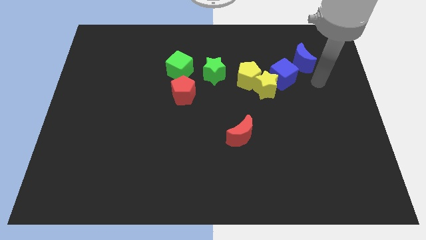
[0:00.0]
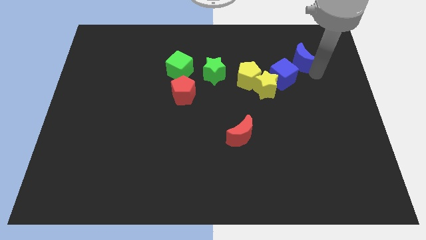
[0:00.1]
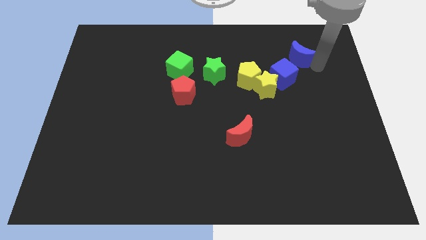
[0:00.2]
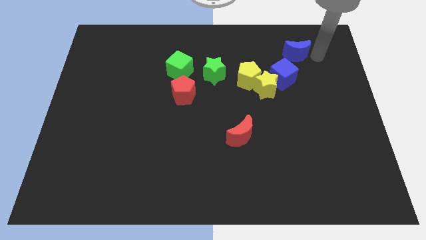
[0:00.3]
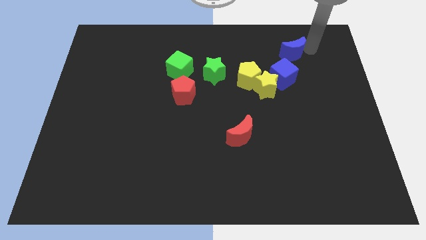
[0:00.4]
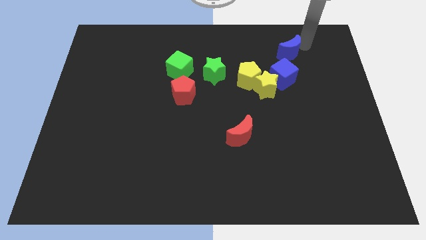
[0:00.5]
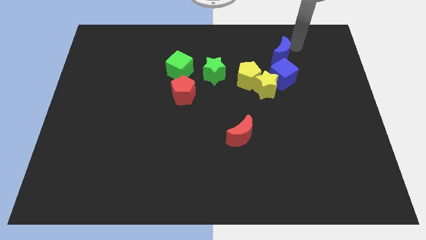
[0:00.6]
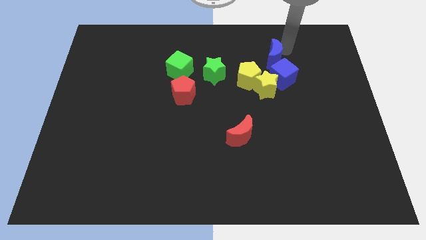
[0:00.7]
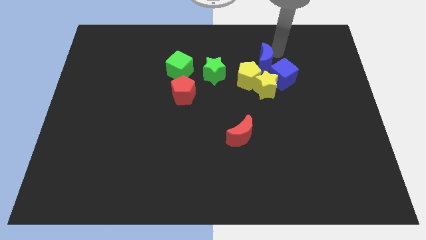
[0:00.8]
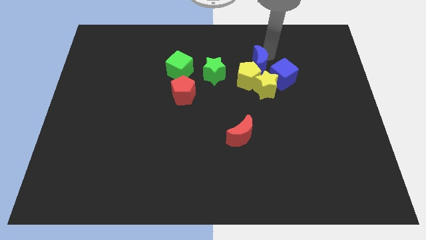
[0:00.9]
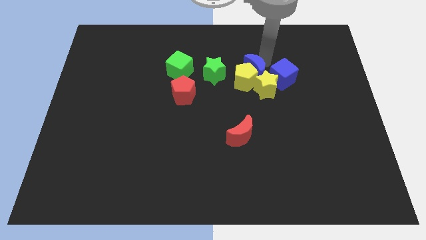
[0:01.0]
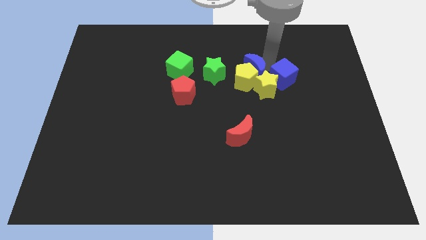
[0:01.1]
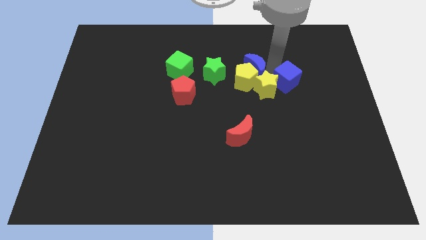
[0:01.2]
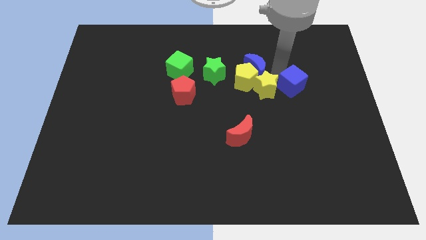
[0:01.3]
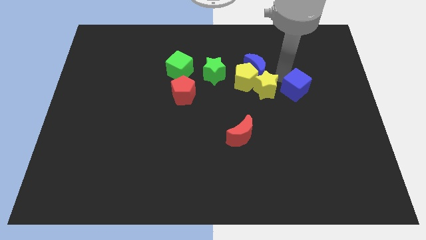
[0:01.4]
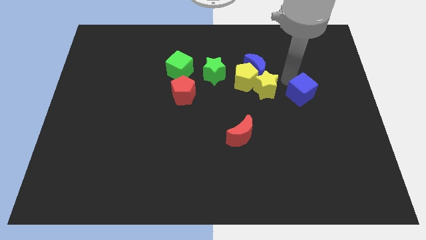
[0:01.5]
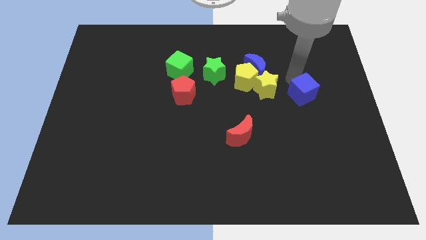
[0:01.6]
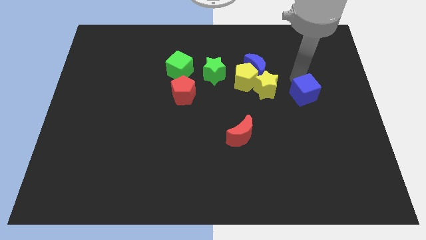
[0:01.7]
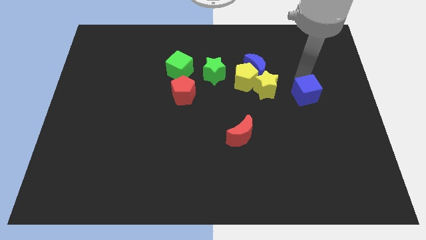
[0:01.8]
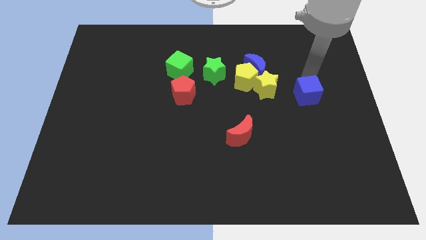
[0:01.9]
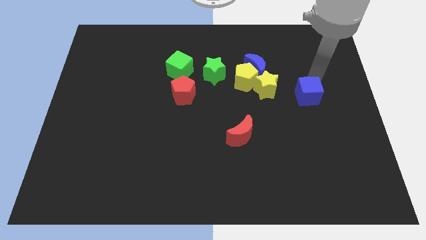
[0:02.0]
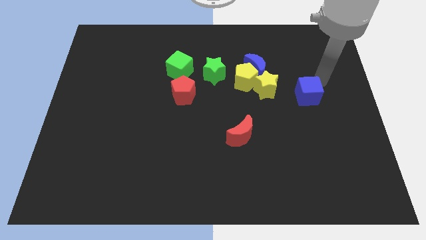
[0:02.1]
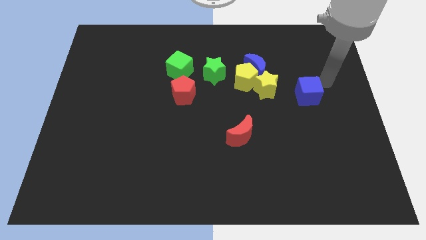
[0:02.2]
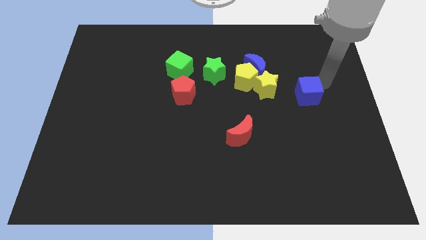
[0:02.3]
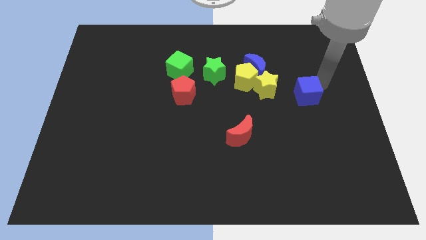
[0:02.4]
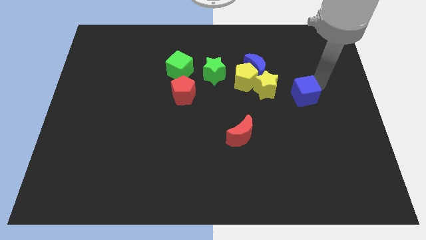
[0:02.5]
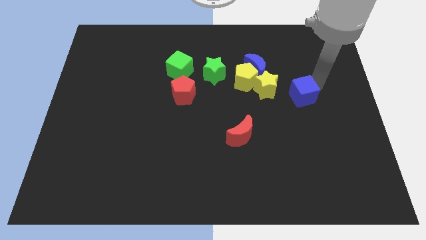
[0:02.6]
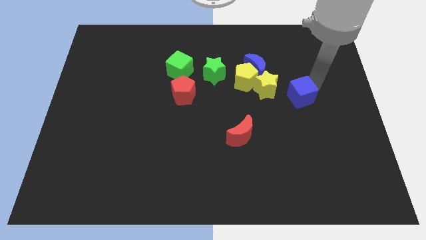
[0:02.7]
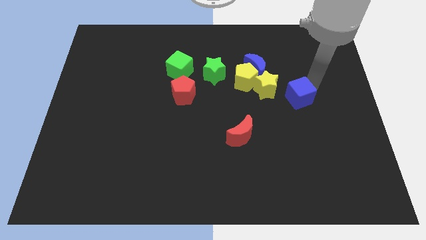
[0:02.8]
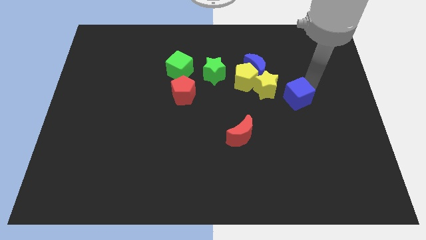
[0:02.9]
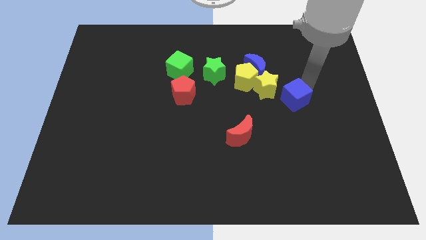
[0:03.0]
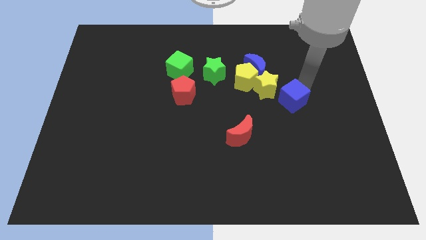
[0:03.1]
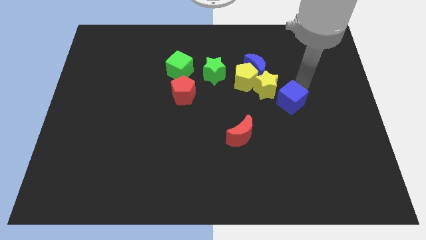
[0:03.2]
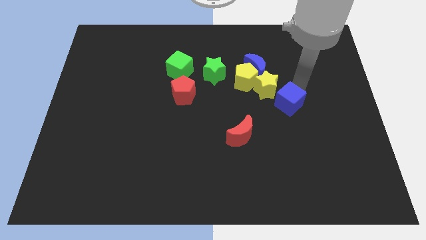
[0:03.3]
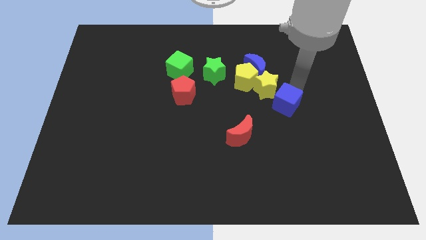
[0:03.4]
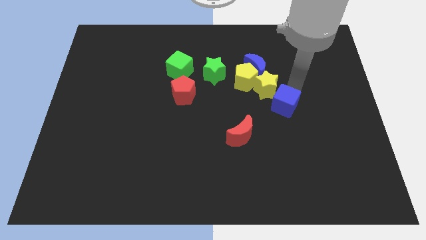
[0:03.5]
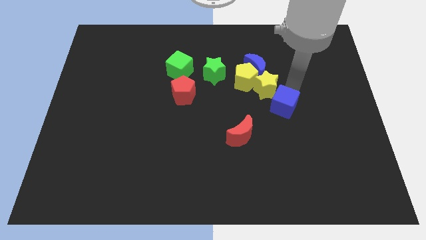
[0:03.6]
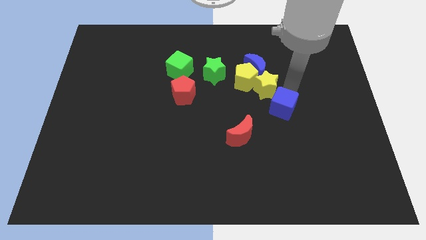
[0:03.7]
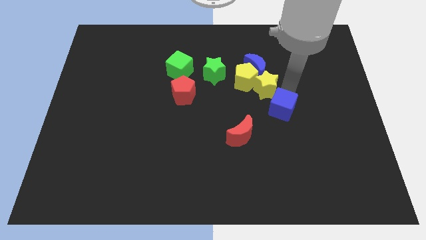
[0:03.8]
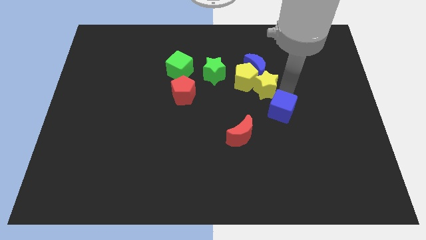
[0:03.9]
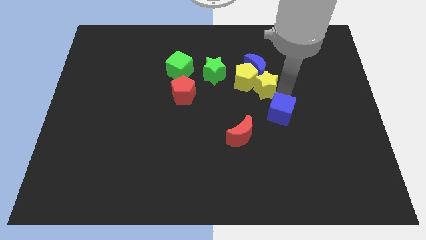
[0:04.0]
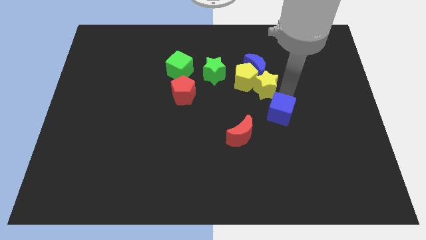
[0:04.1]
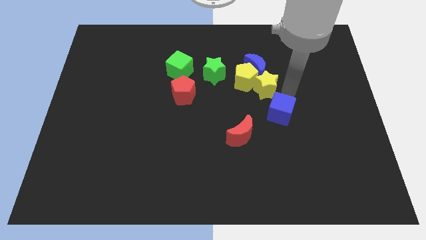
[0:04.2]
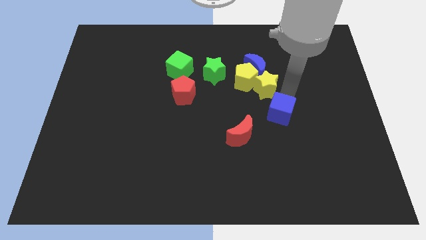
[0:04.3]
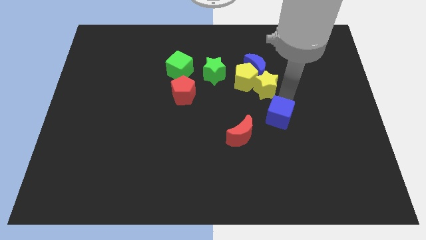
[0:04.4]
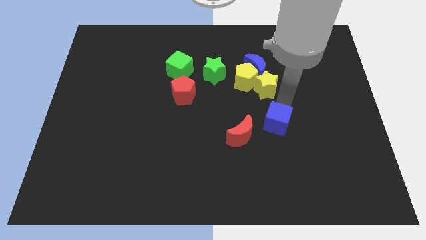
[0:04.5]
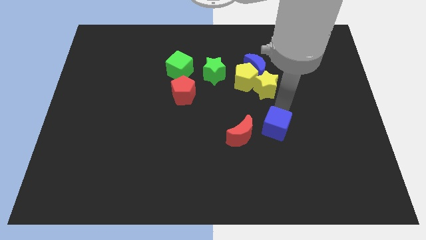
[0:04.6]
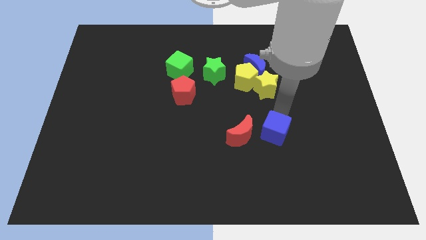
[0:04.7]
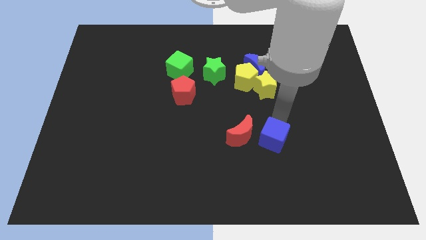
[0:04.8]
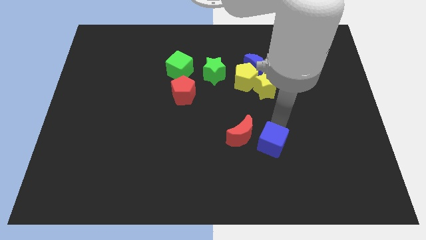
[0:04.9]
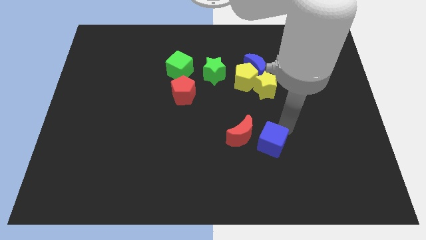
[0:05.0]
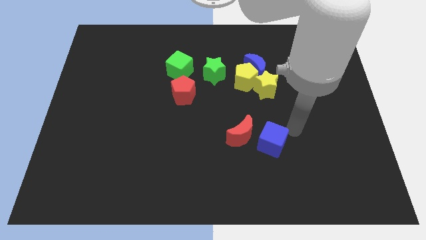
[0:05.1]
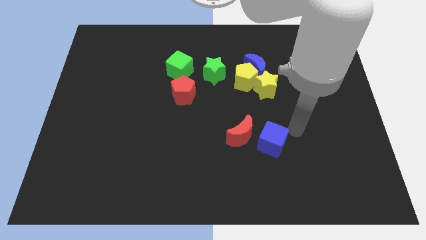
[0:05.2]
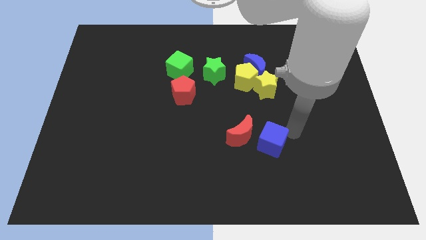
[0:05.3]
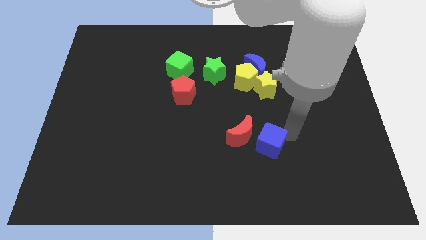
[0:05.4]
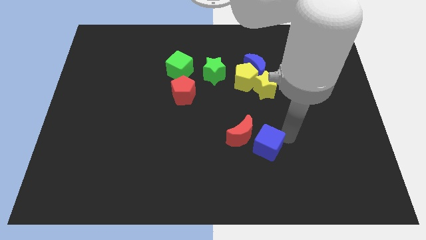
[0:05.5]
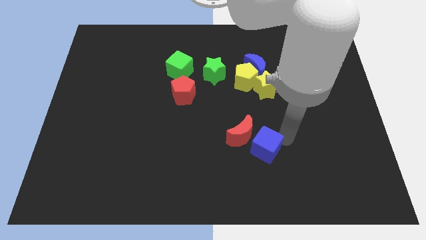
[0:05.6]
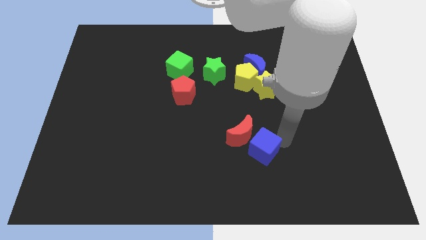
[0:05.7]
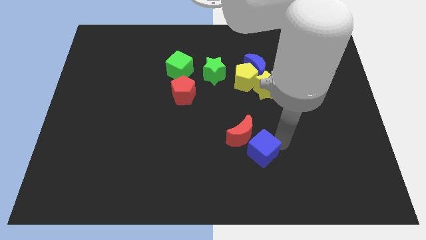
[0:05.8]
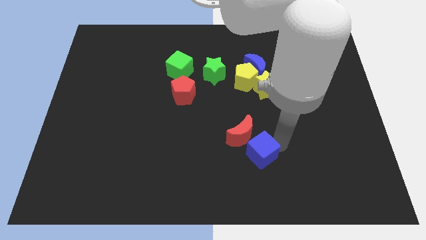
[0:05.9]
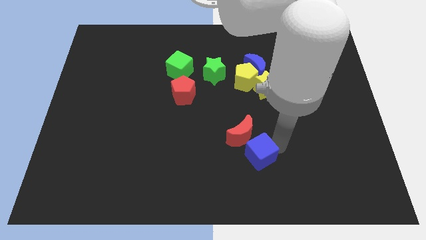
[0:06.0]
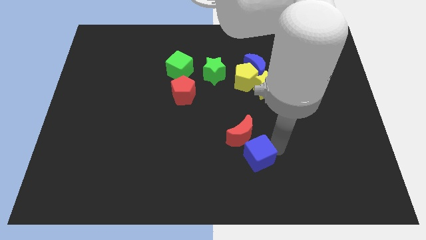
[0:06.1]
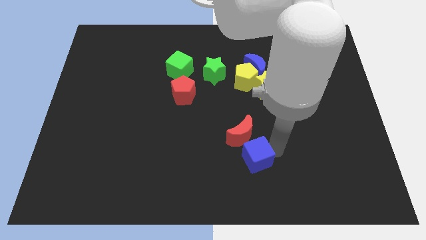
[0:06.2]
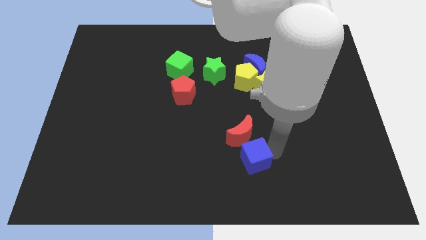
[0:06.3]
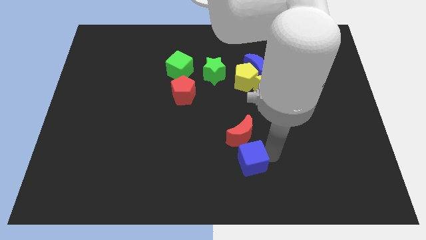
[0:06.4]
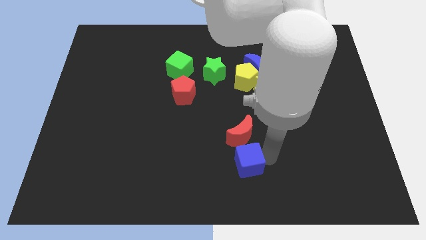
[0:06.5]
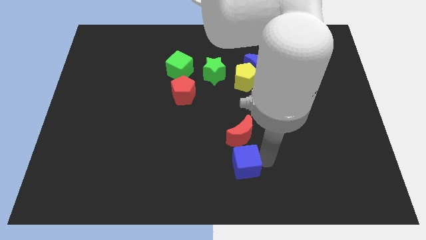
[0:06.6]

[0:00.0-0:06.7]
push the blue cube downwards and left

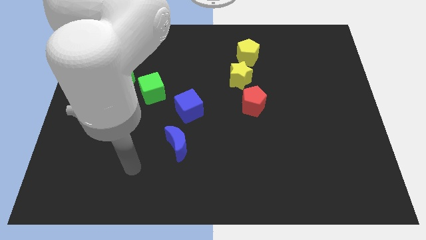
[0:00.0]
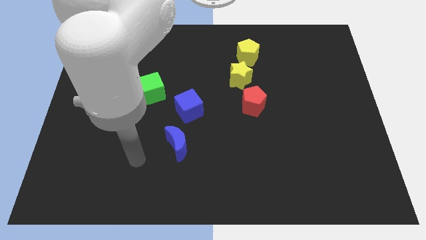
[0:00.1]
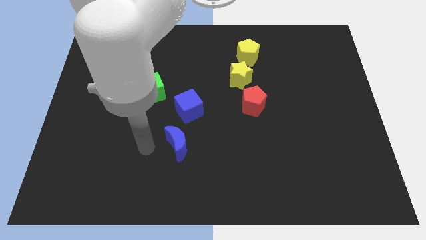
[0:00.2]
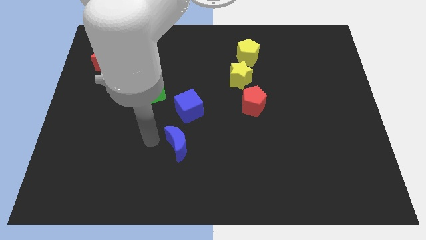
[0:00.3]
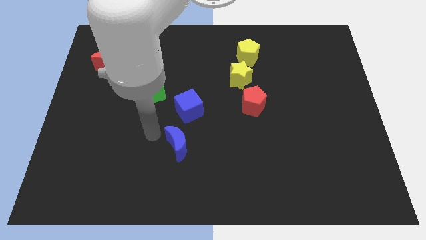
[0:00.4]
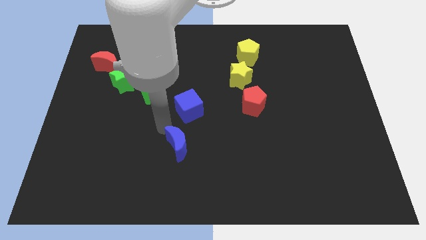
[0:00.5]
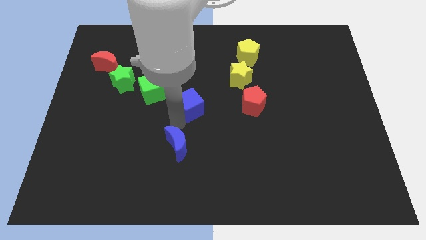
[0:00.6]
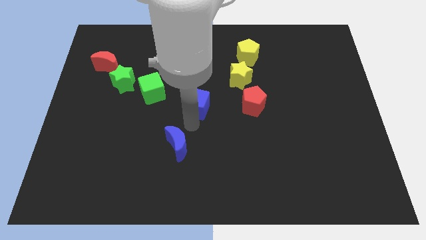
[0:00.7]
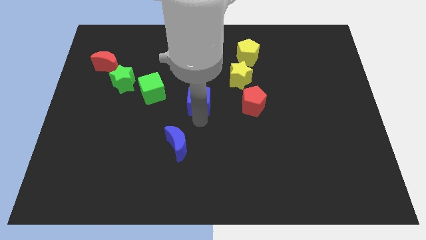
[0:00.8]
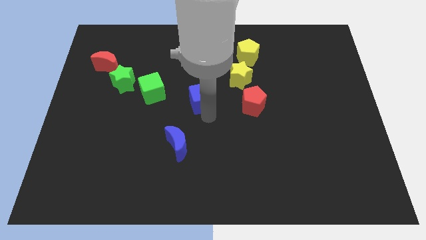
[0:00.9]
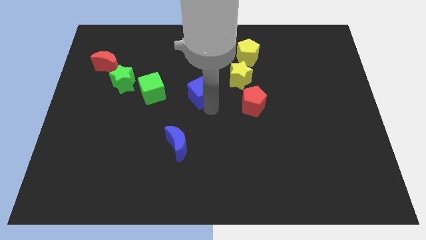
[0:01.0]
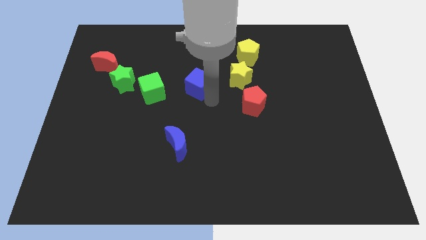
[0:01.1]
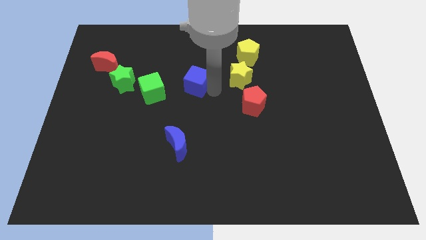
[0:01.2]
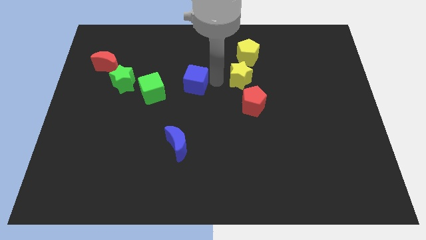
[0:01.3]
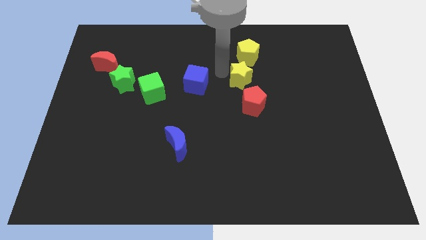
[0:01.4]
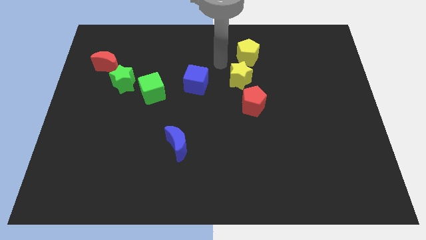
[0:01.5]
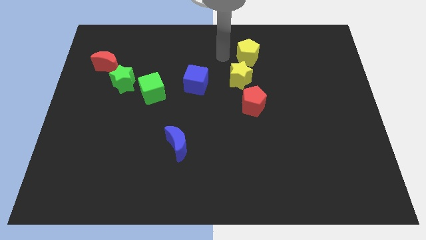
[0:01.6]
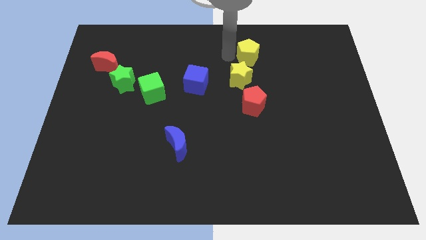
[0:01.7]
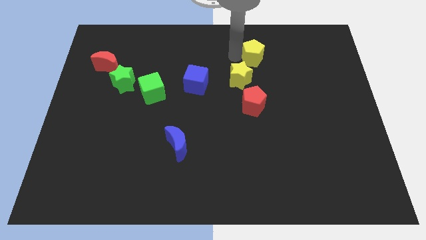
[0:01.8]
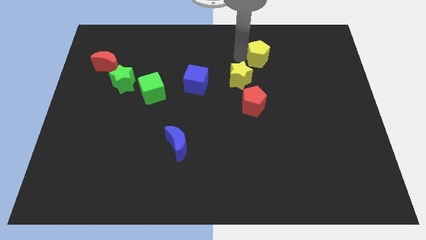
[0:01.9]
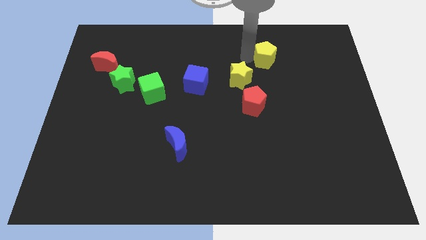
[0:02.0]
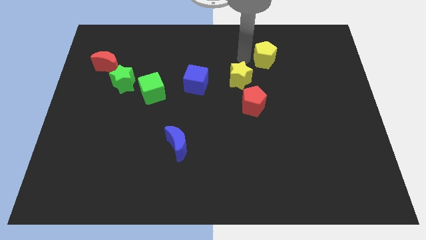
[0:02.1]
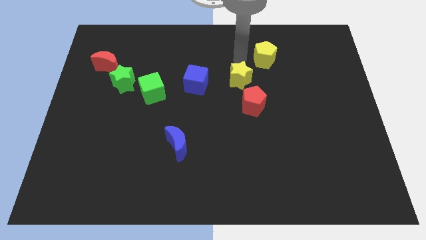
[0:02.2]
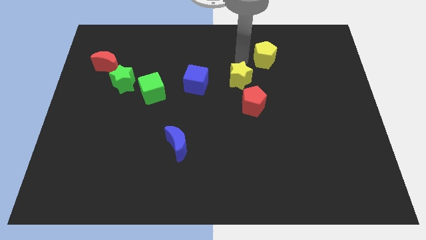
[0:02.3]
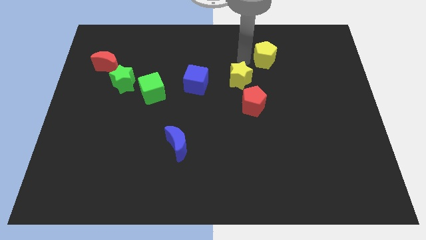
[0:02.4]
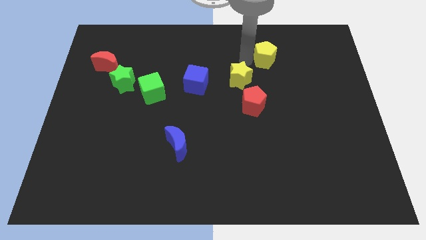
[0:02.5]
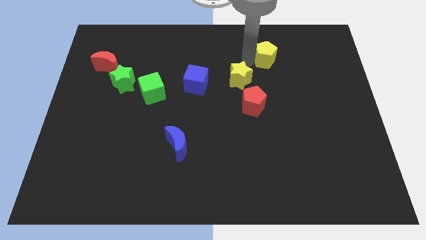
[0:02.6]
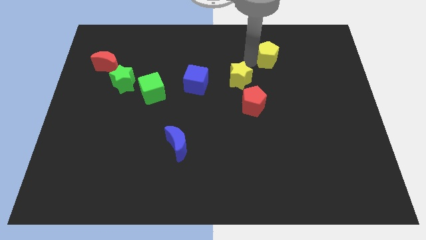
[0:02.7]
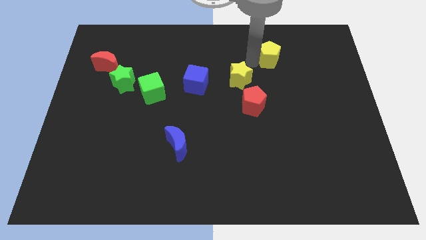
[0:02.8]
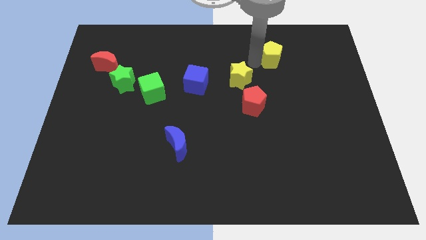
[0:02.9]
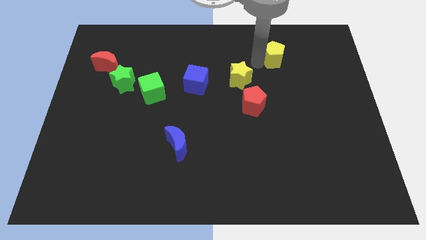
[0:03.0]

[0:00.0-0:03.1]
move the yellow pentagon right a little
